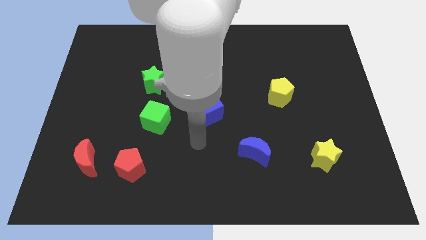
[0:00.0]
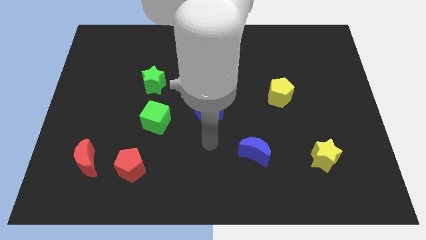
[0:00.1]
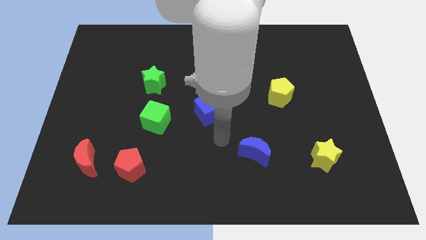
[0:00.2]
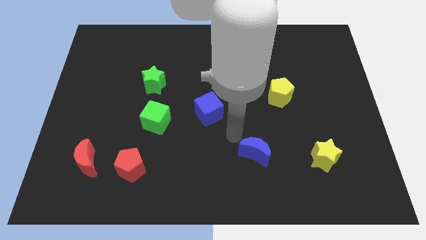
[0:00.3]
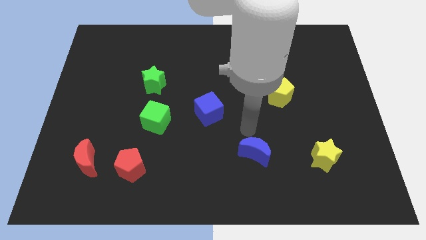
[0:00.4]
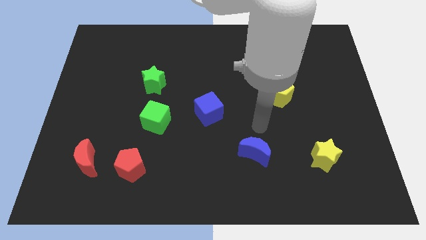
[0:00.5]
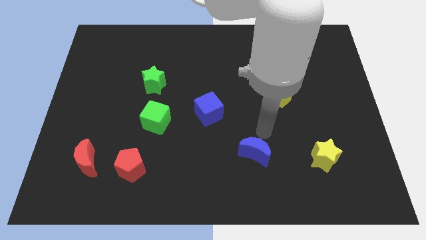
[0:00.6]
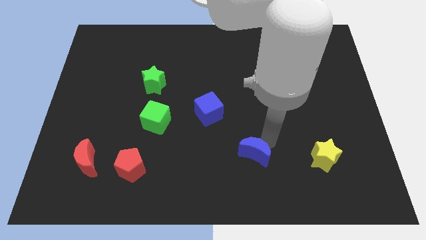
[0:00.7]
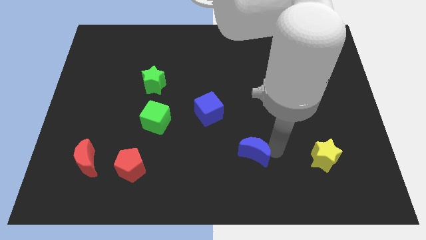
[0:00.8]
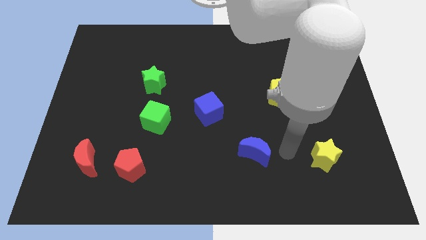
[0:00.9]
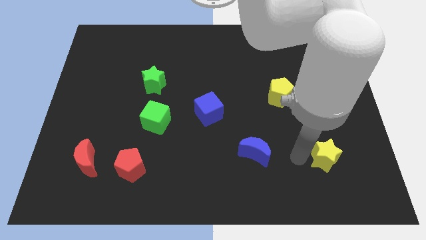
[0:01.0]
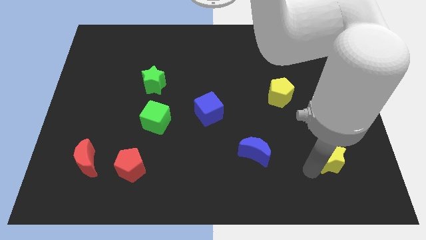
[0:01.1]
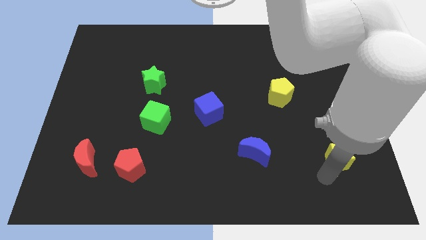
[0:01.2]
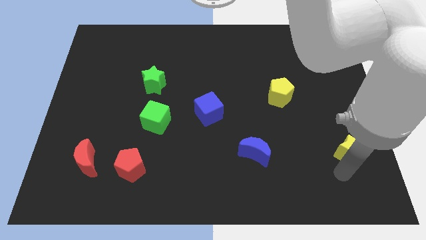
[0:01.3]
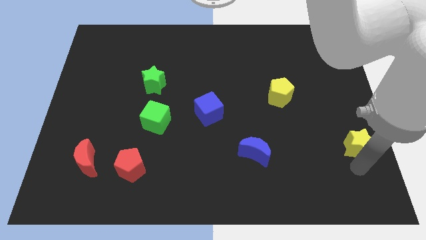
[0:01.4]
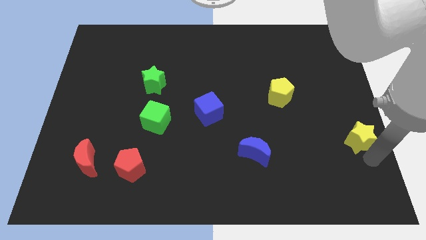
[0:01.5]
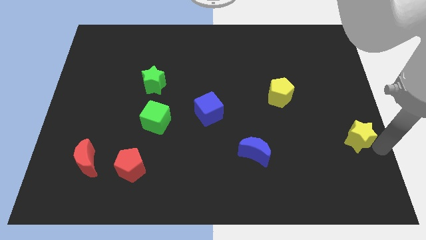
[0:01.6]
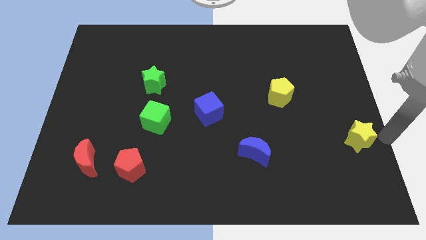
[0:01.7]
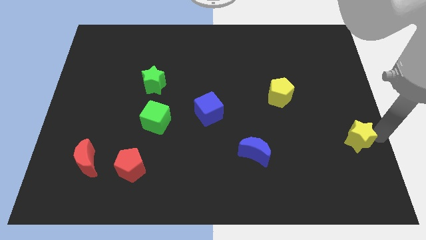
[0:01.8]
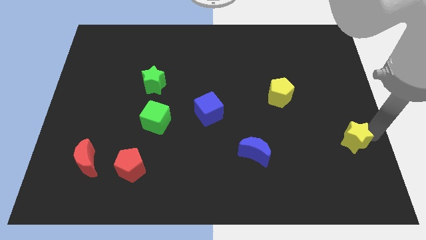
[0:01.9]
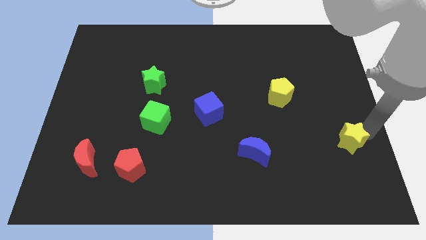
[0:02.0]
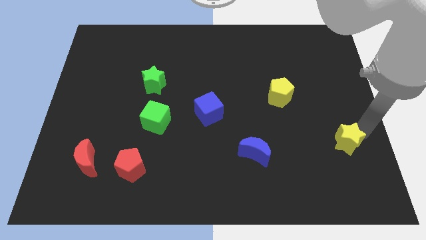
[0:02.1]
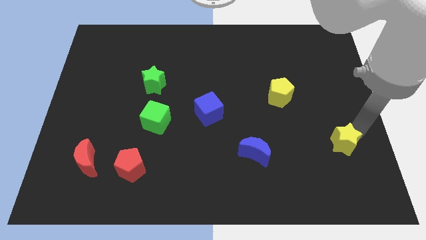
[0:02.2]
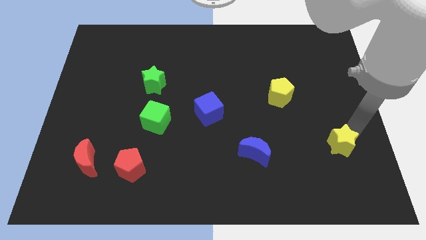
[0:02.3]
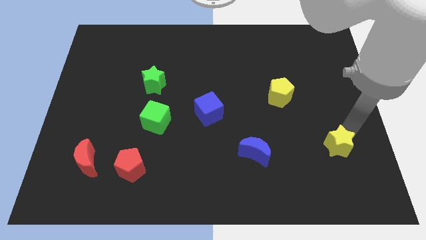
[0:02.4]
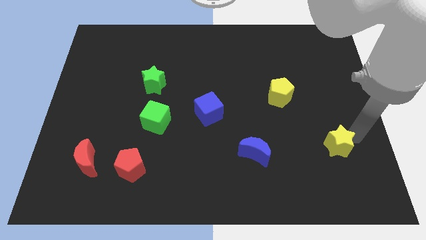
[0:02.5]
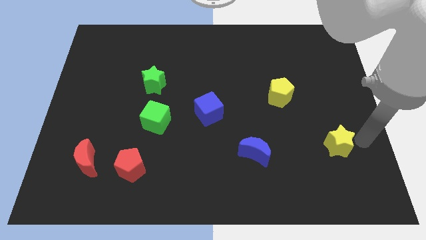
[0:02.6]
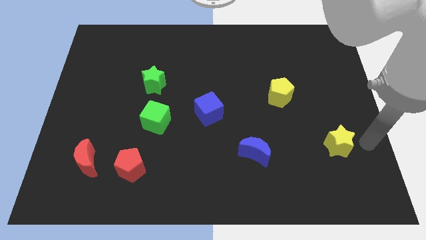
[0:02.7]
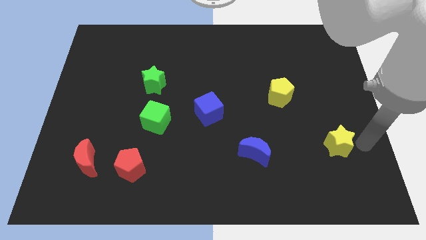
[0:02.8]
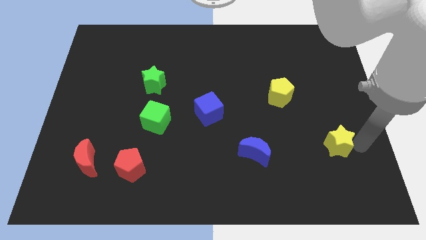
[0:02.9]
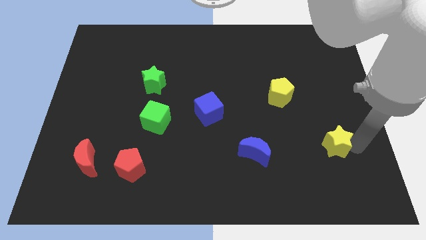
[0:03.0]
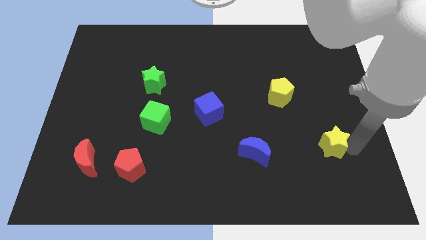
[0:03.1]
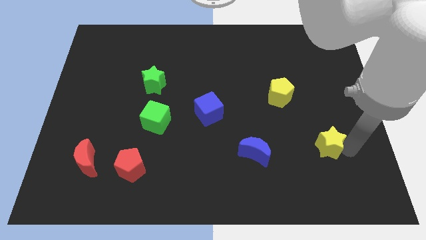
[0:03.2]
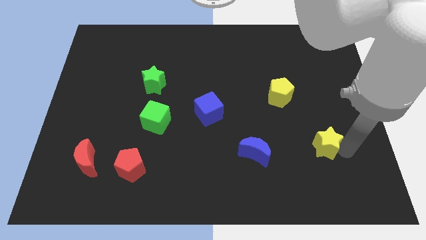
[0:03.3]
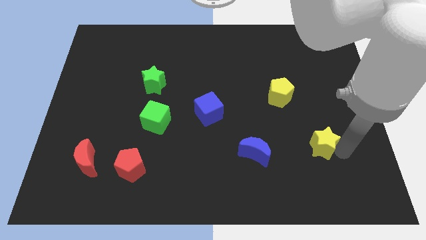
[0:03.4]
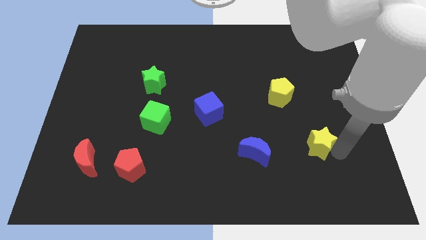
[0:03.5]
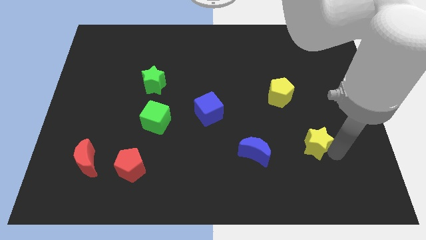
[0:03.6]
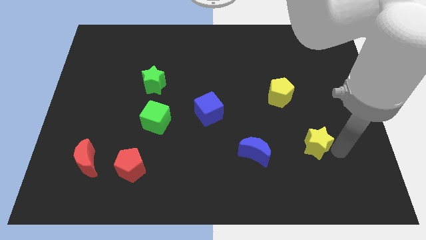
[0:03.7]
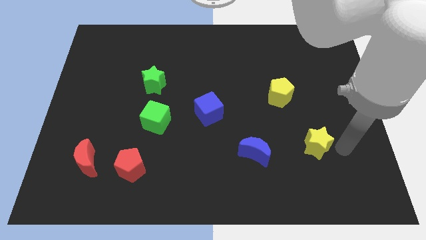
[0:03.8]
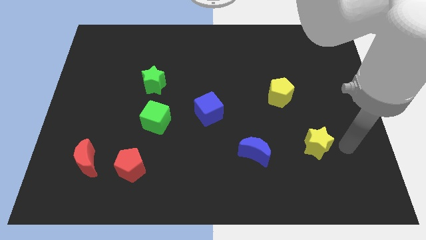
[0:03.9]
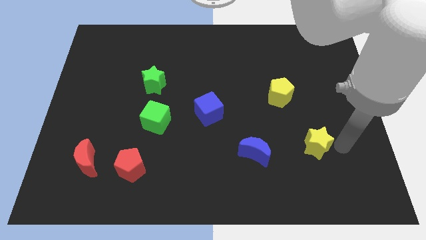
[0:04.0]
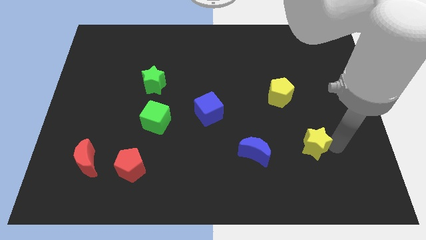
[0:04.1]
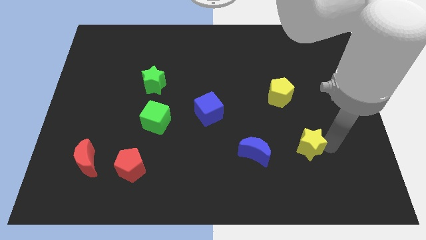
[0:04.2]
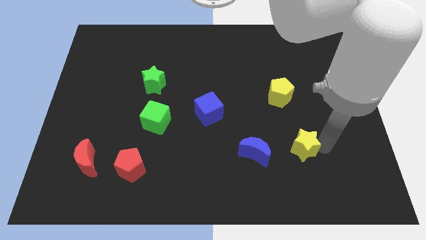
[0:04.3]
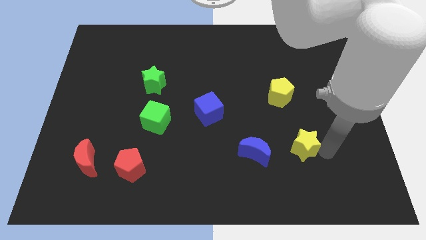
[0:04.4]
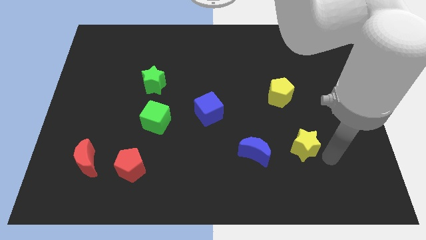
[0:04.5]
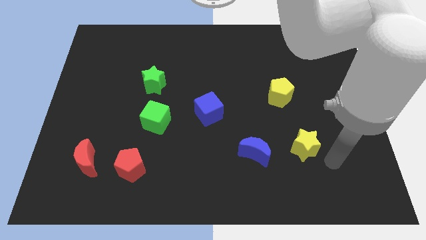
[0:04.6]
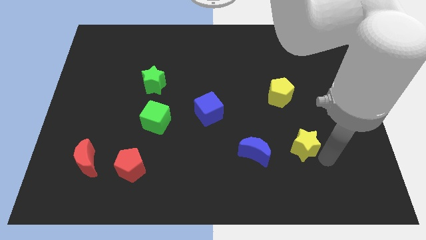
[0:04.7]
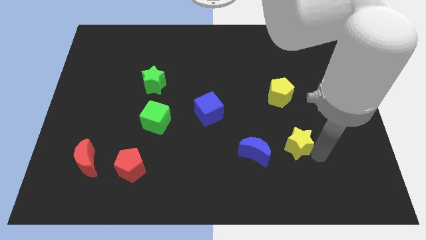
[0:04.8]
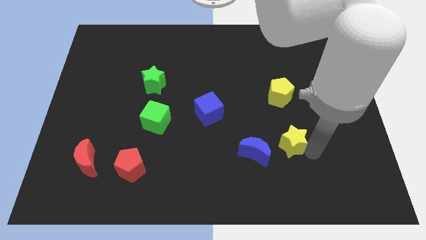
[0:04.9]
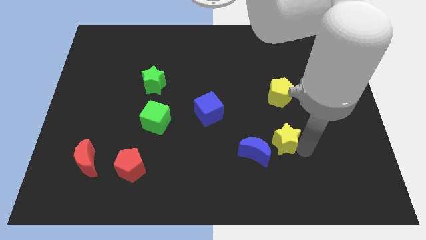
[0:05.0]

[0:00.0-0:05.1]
slightly move the yellow star diagonally upwards and to the left

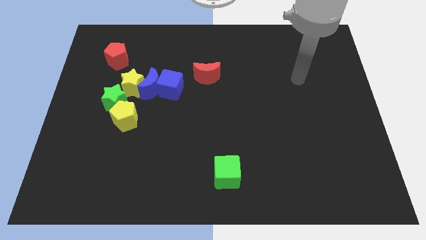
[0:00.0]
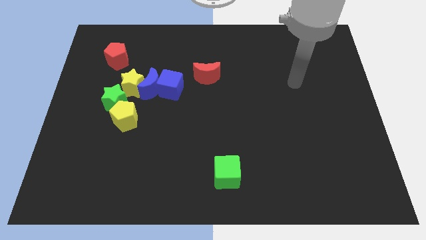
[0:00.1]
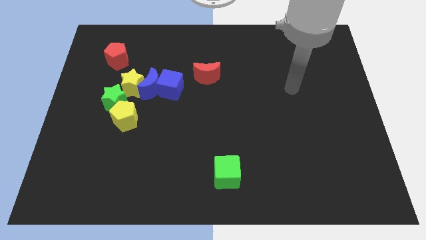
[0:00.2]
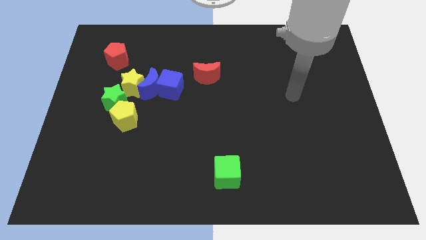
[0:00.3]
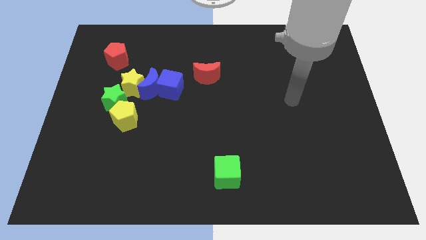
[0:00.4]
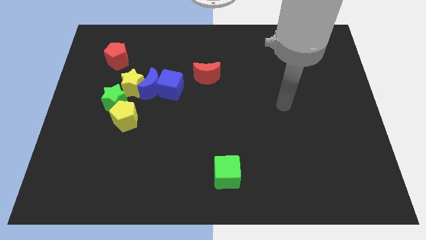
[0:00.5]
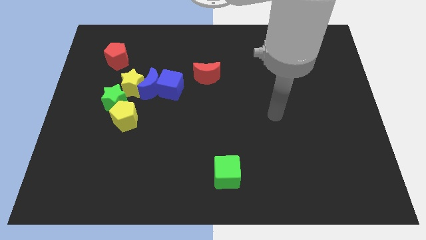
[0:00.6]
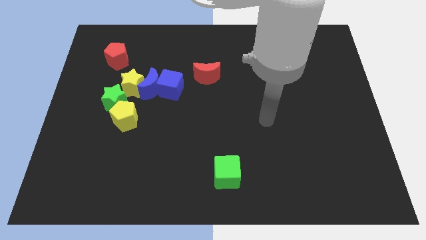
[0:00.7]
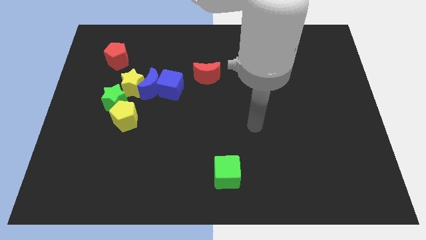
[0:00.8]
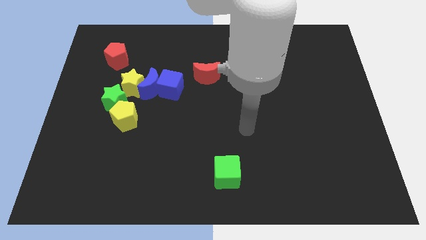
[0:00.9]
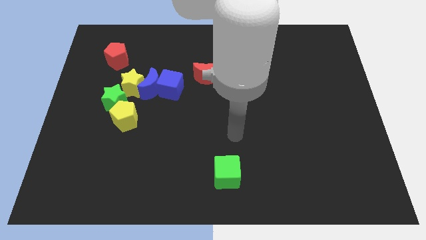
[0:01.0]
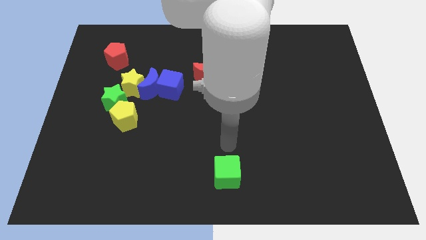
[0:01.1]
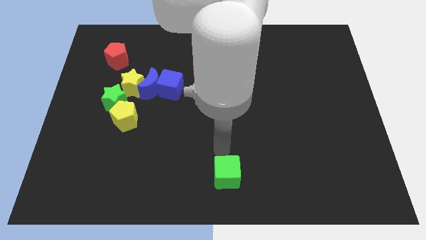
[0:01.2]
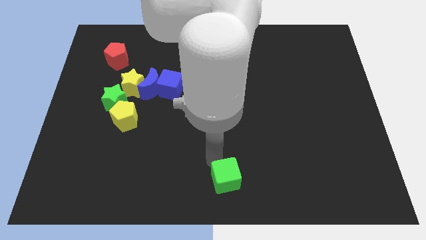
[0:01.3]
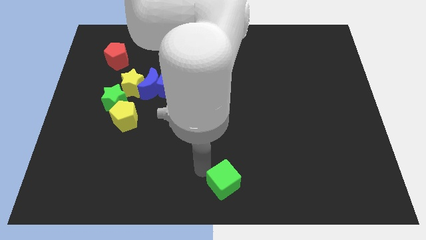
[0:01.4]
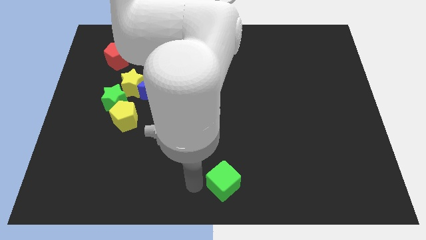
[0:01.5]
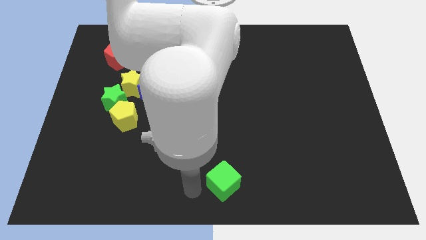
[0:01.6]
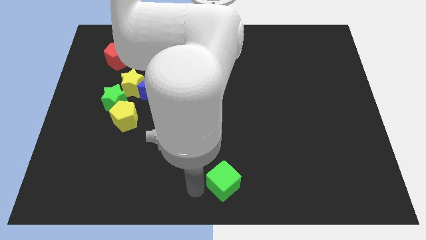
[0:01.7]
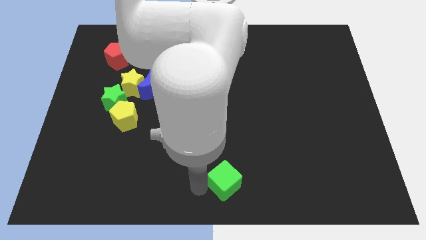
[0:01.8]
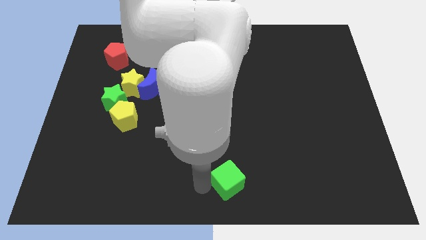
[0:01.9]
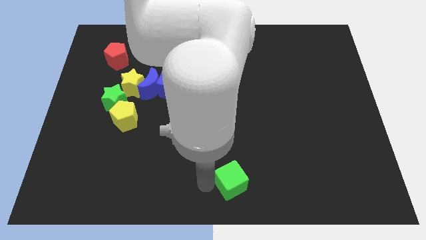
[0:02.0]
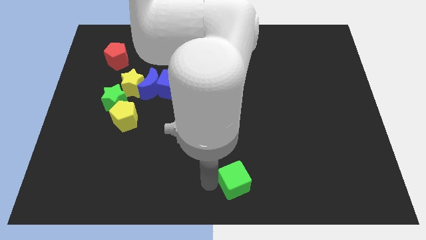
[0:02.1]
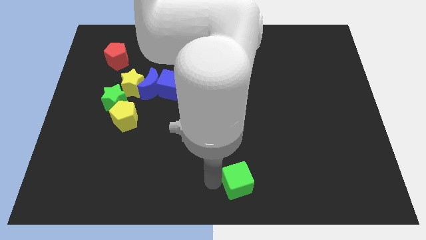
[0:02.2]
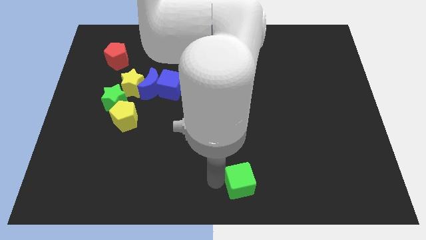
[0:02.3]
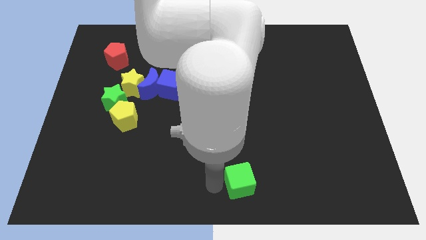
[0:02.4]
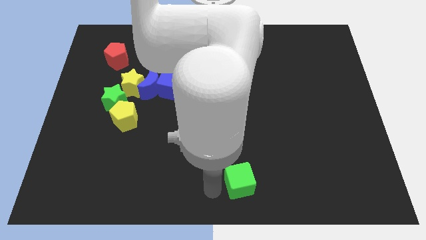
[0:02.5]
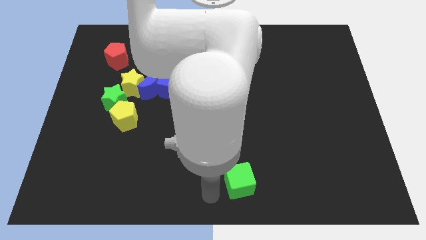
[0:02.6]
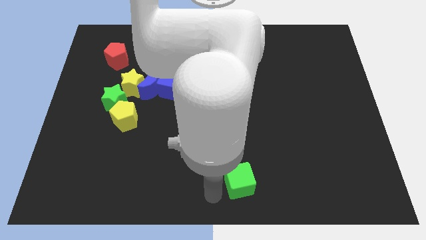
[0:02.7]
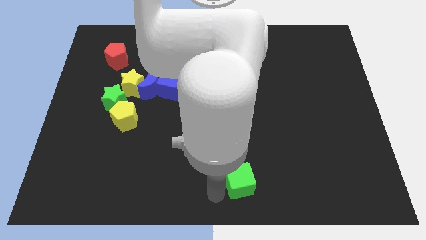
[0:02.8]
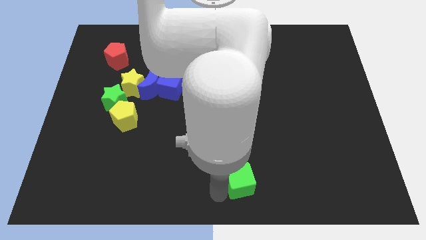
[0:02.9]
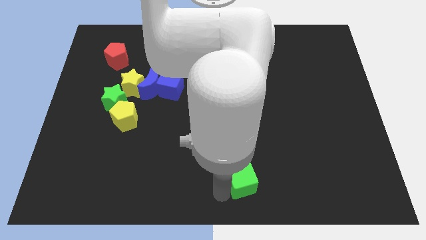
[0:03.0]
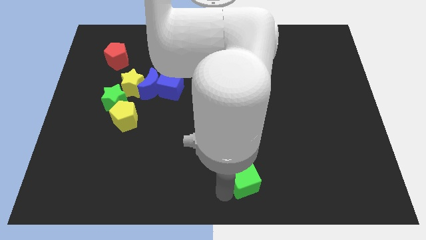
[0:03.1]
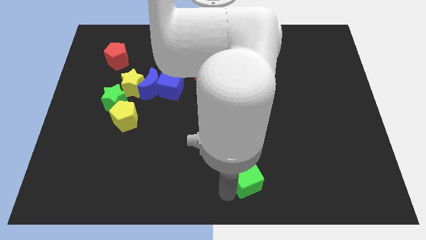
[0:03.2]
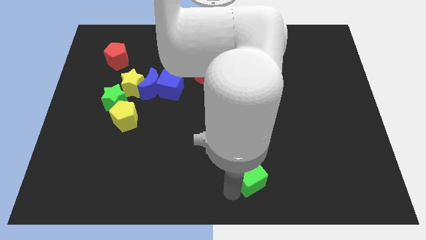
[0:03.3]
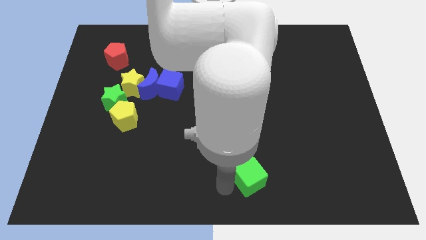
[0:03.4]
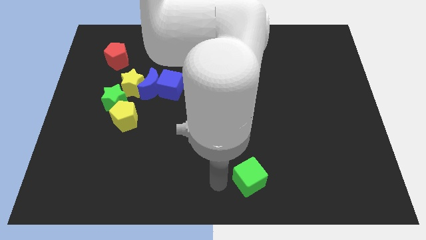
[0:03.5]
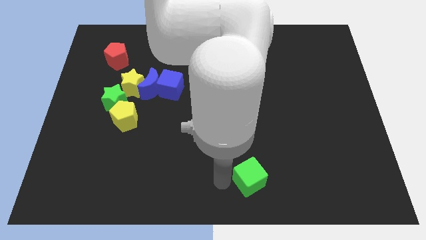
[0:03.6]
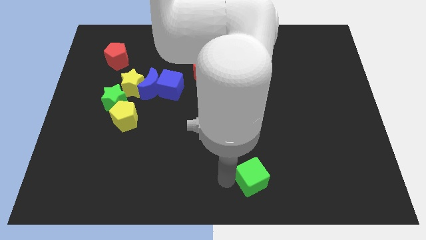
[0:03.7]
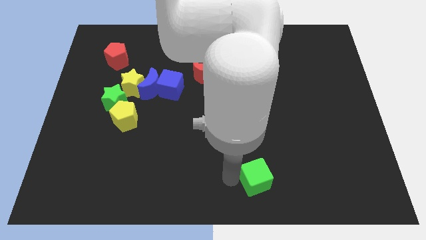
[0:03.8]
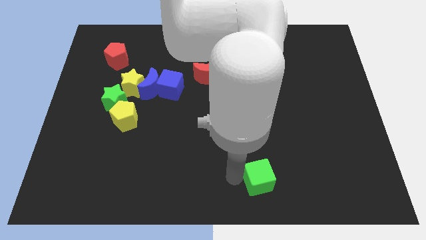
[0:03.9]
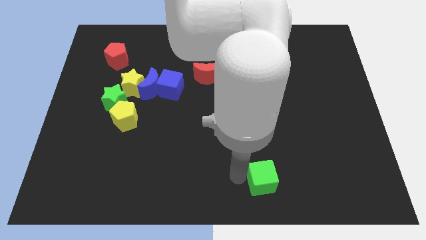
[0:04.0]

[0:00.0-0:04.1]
slightly push the green cube right
